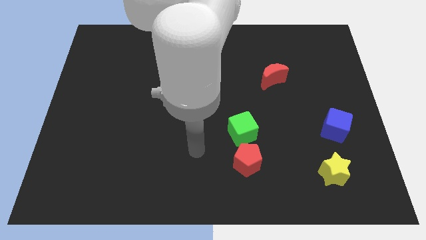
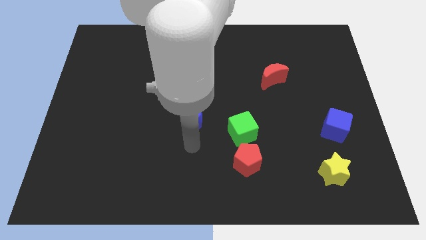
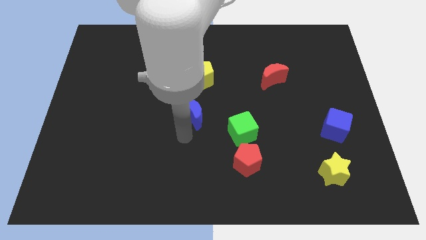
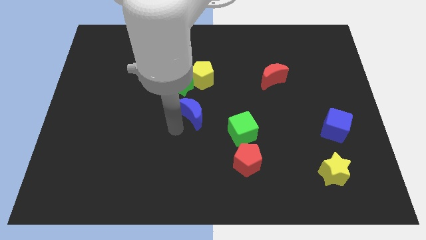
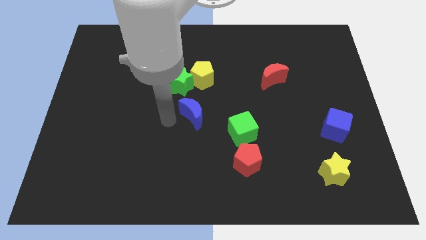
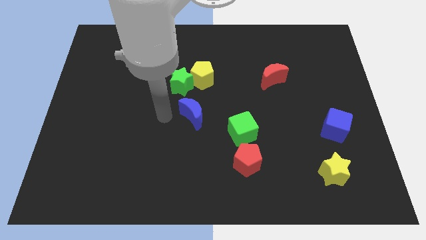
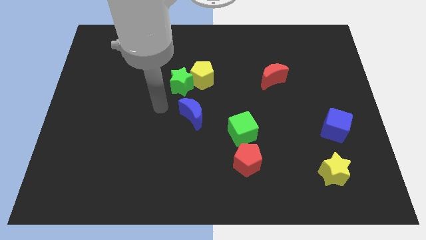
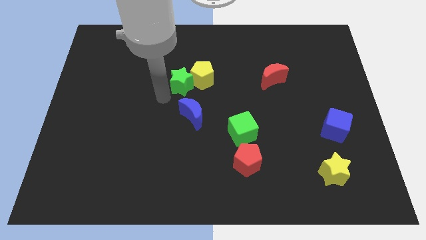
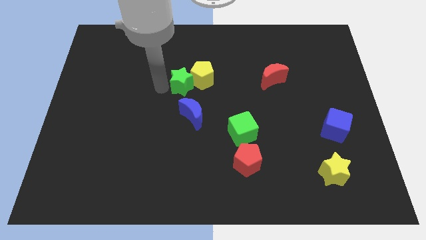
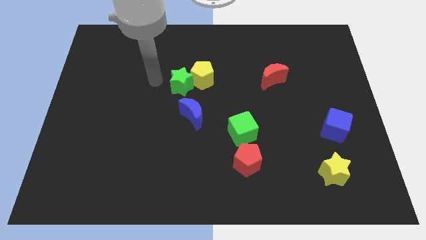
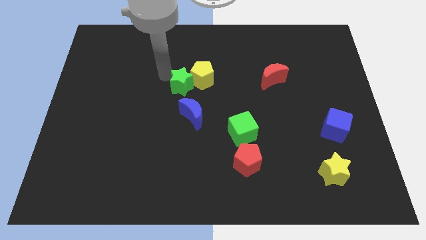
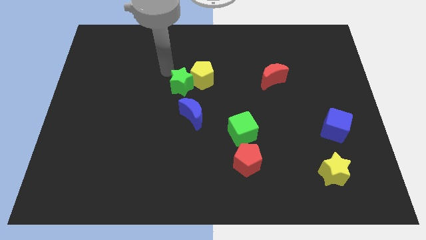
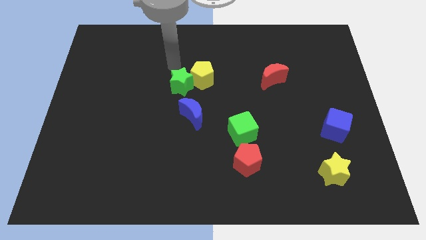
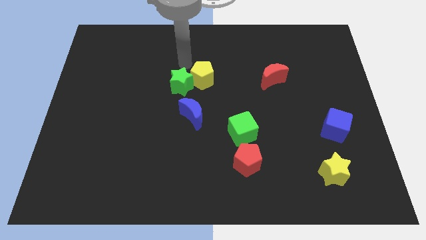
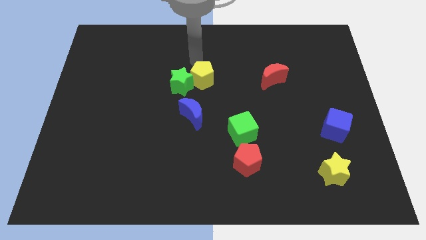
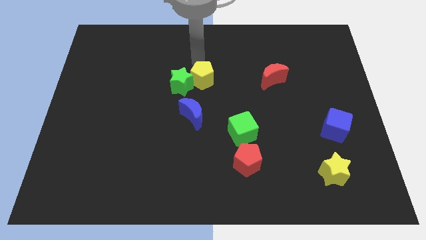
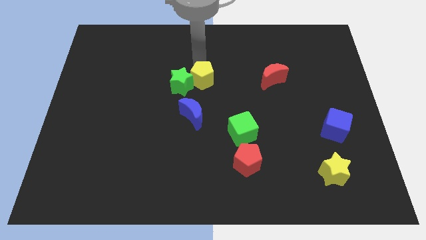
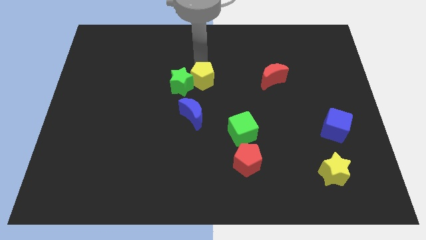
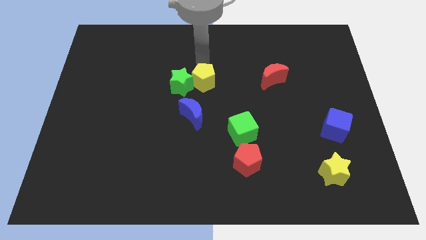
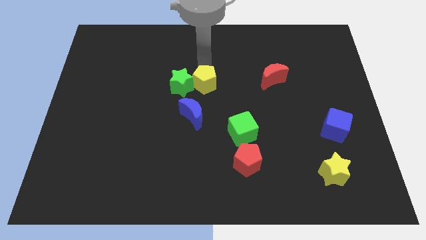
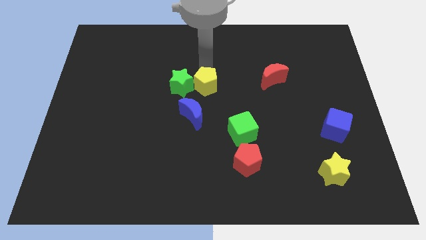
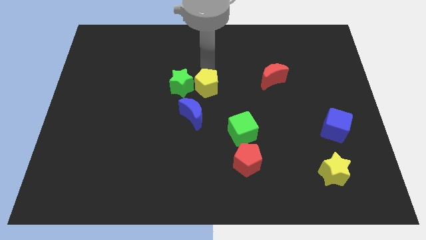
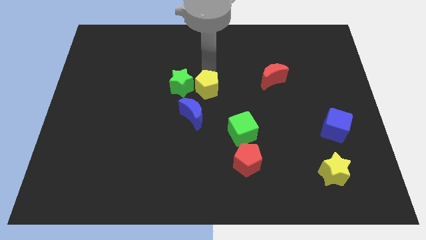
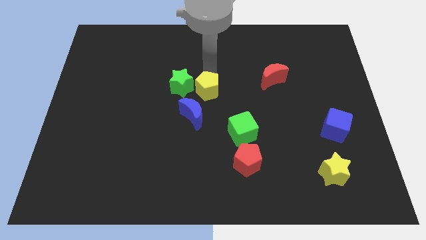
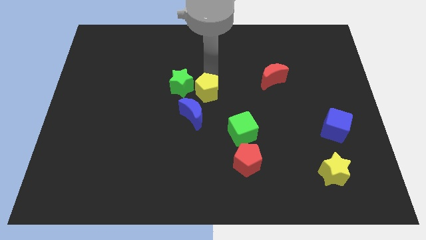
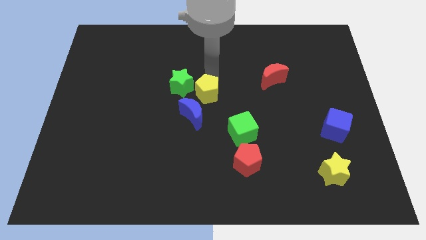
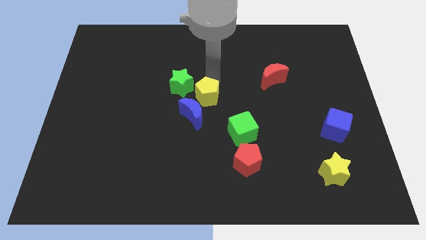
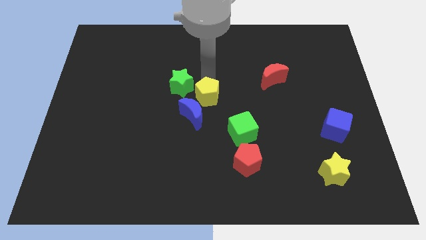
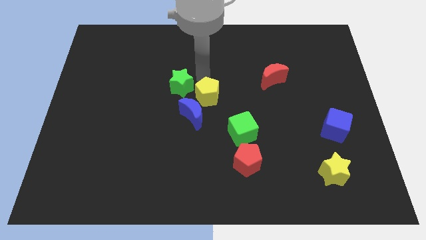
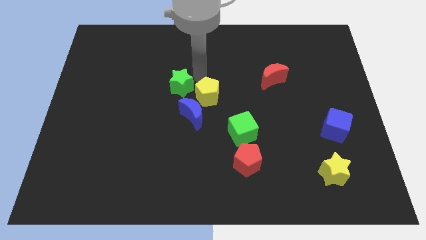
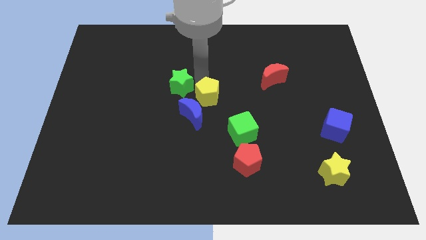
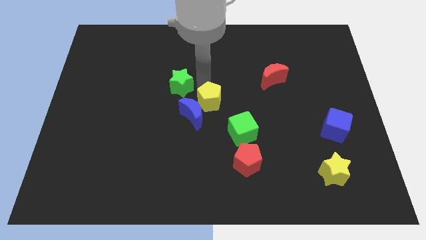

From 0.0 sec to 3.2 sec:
slightly push the yellow pentagon downwards

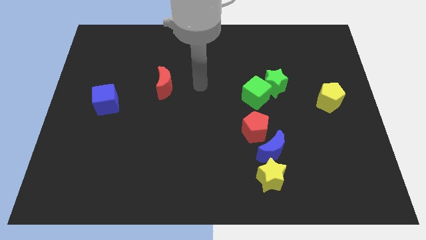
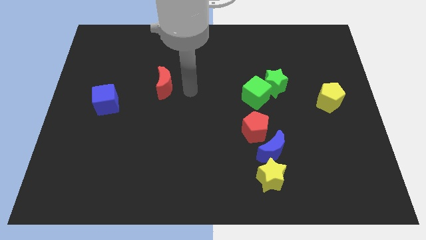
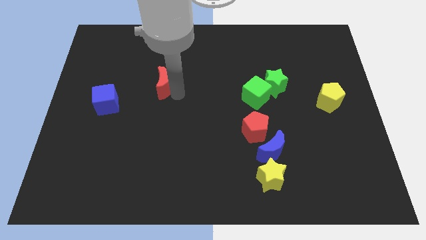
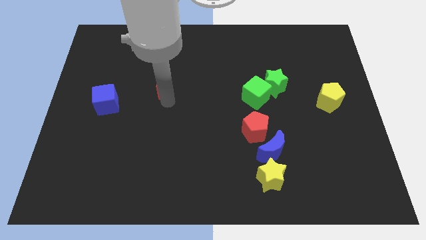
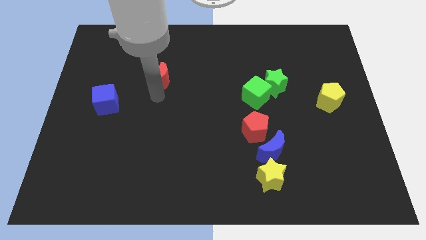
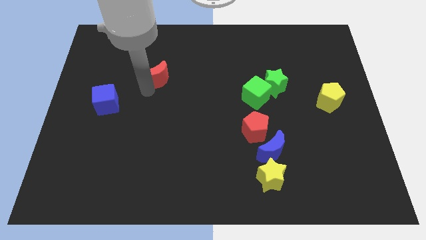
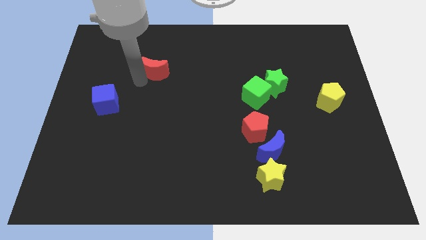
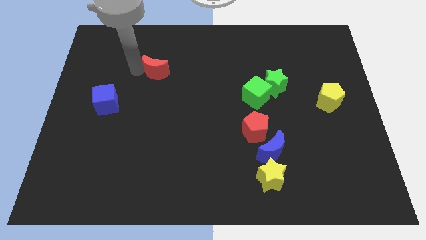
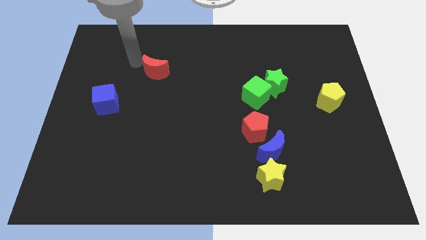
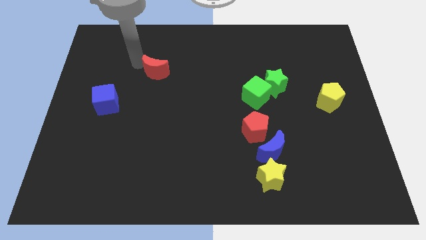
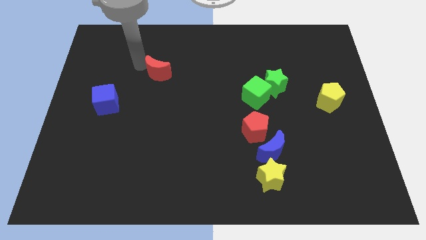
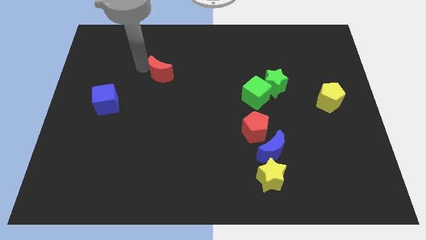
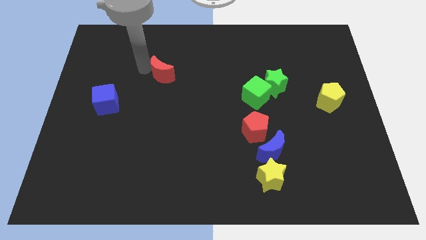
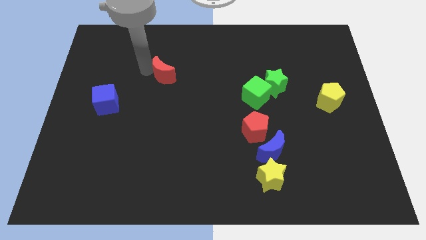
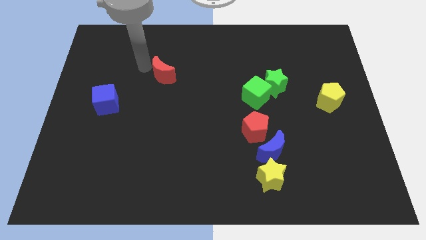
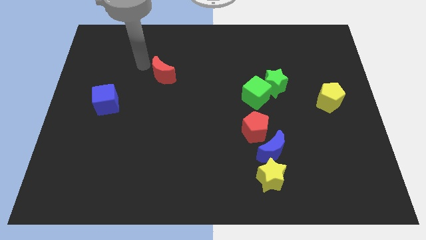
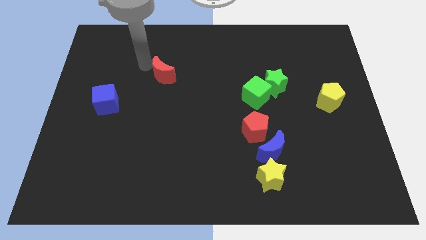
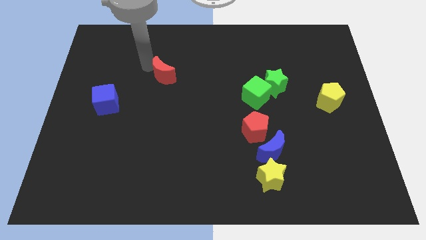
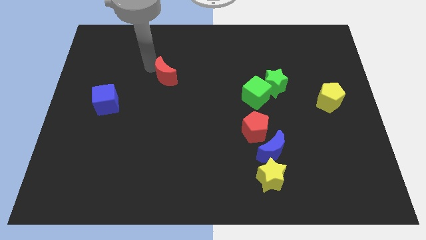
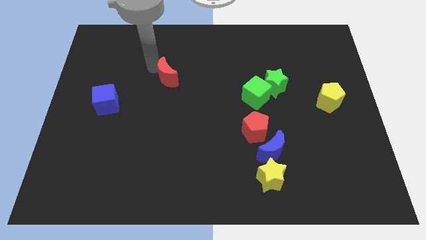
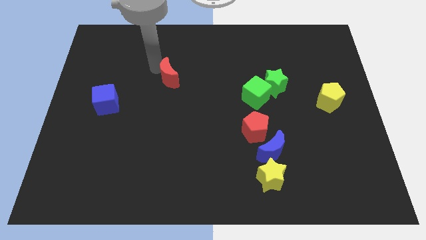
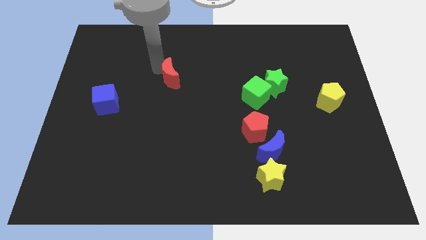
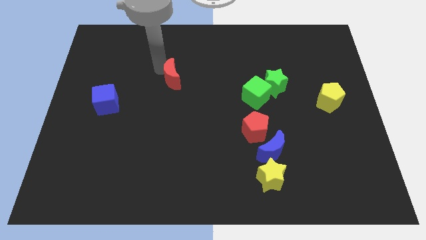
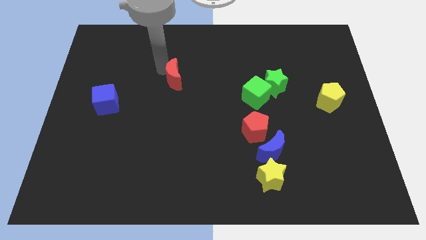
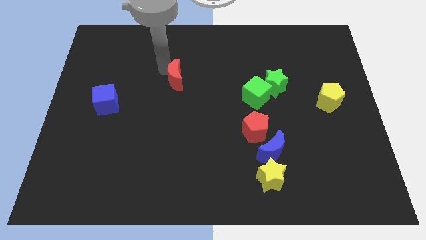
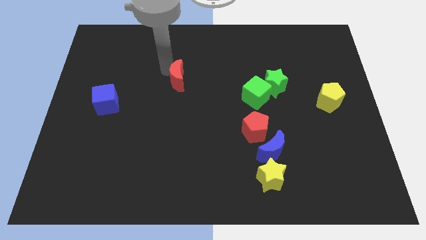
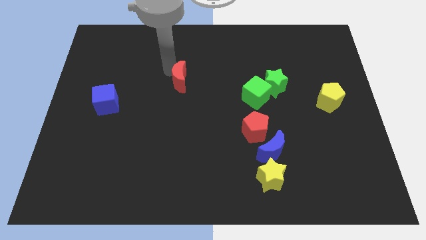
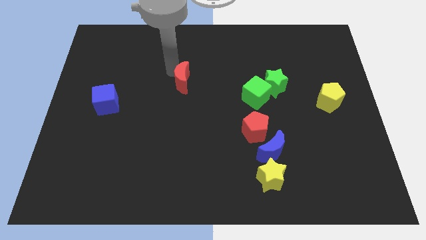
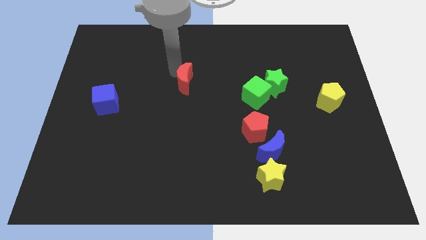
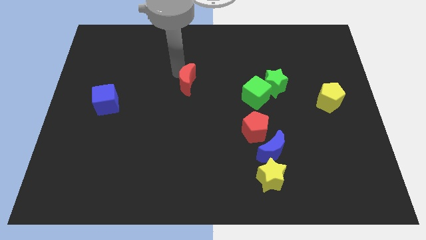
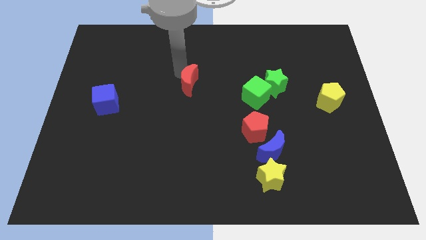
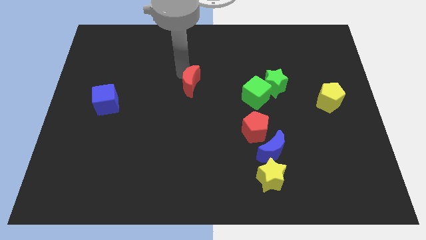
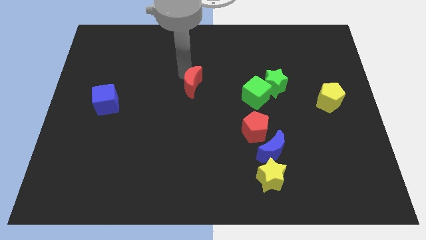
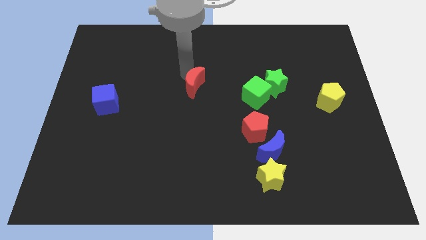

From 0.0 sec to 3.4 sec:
slightly slide the red moon right

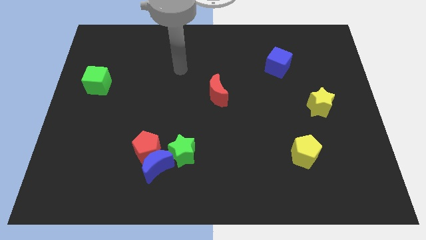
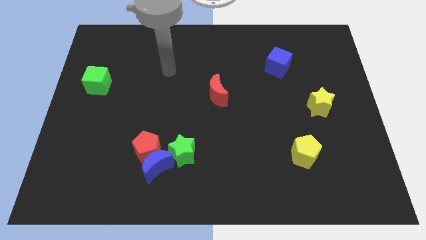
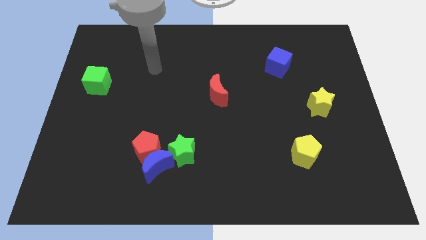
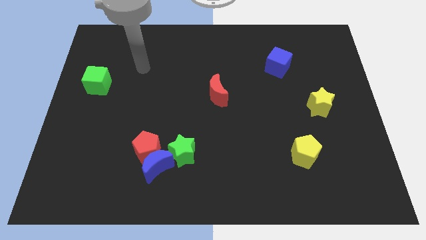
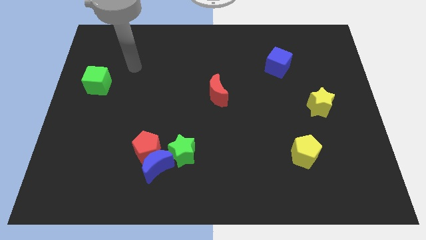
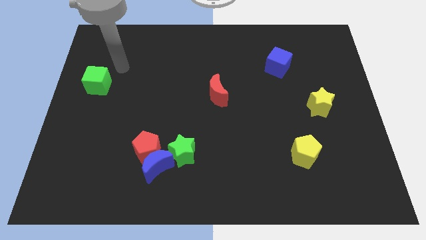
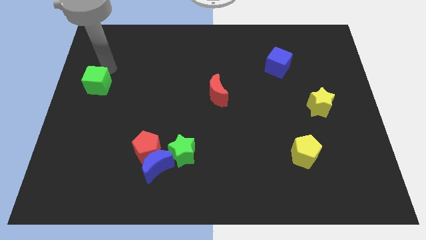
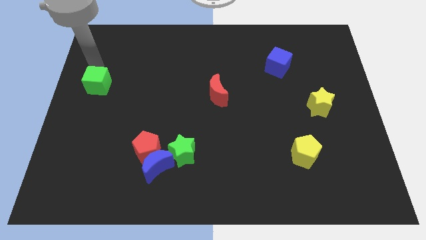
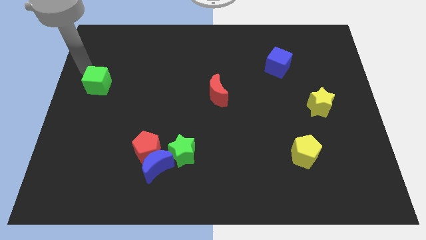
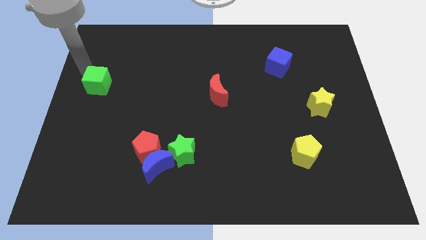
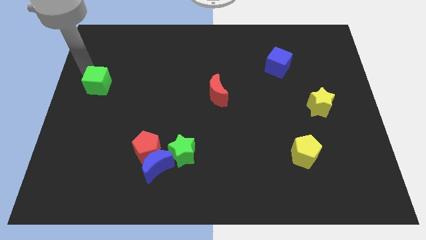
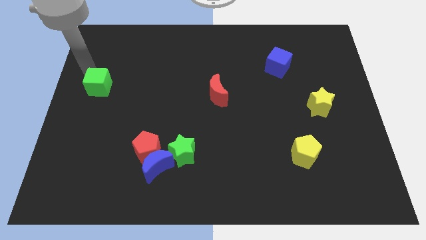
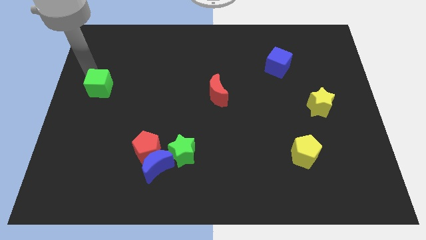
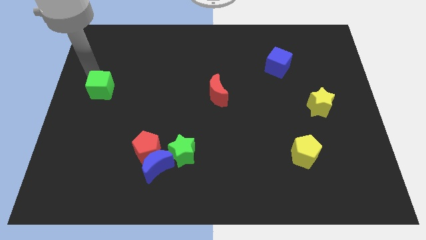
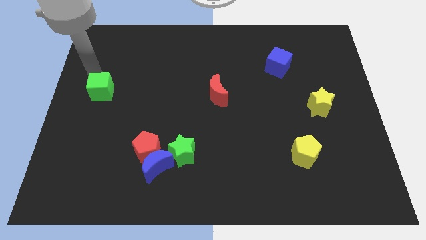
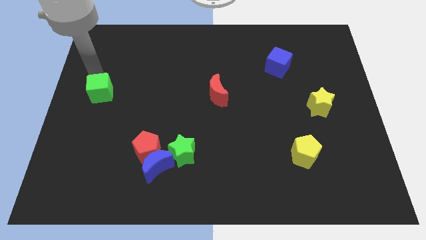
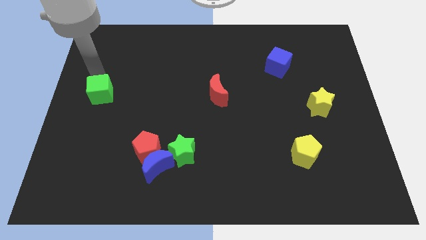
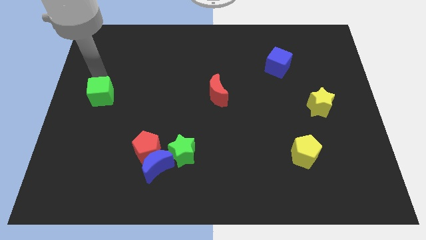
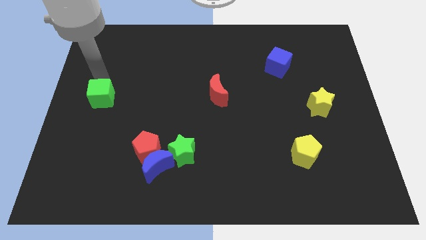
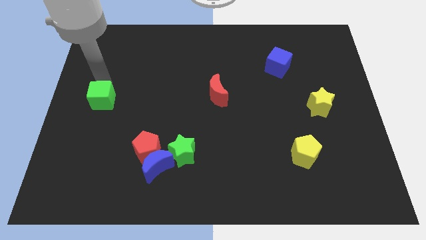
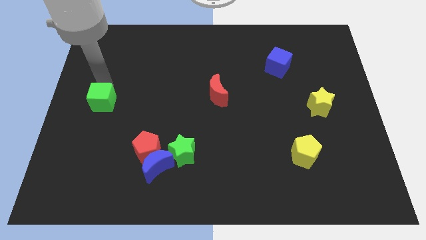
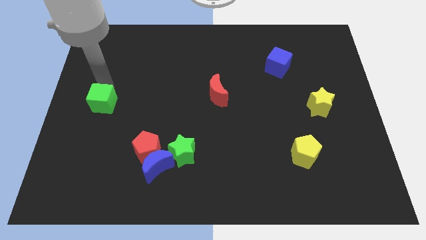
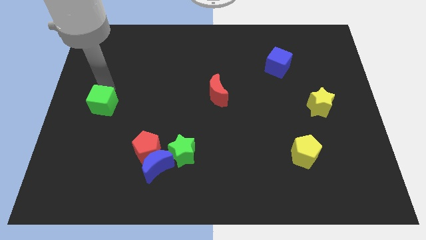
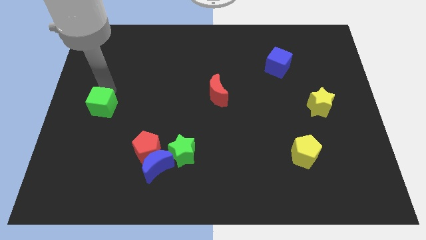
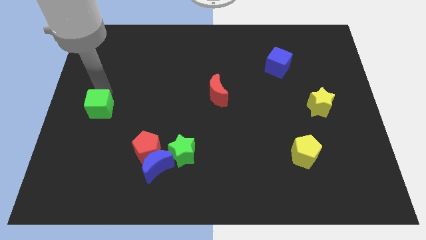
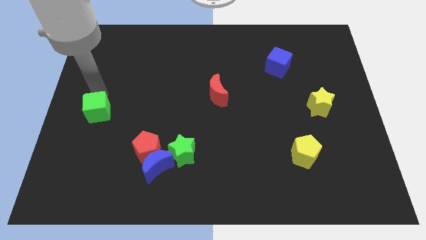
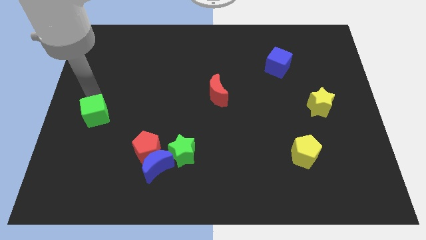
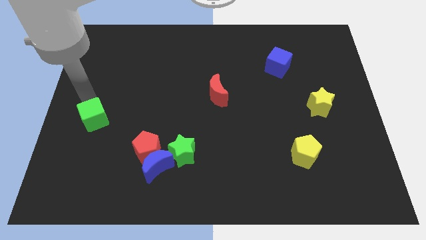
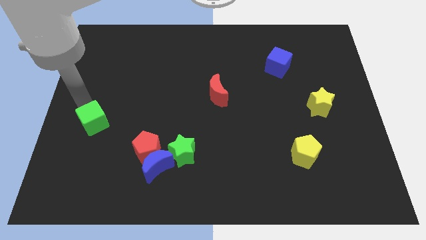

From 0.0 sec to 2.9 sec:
slide the green cube diagonally down and right a little bit
